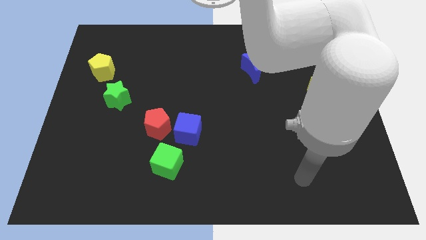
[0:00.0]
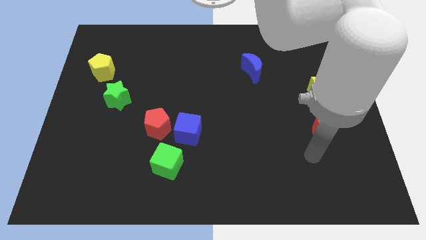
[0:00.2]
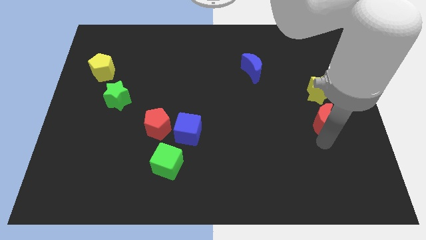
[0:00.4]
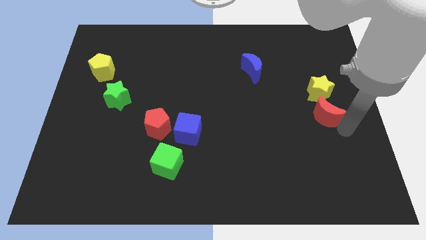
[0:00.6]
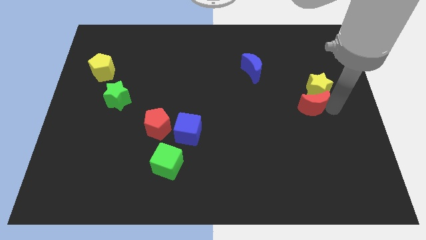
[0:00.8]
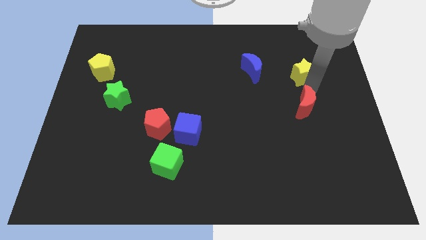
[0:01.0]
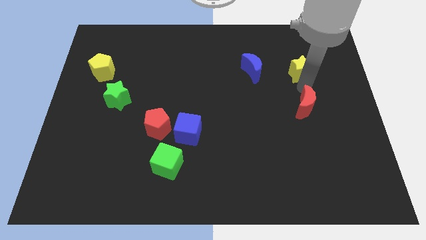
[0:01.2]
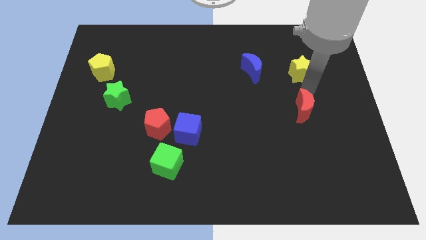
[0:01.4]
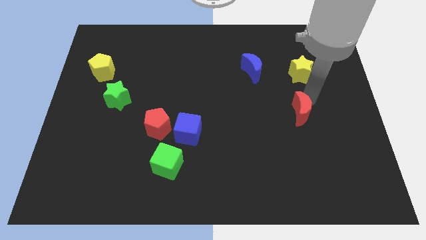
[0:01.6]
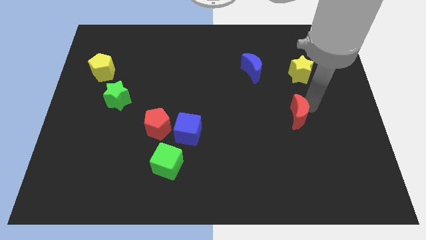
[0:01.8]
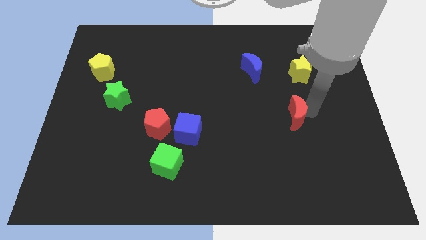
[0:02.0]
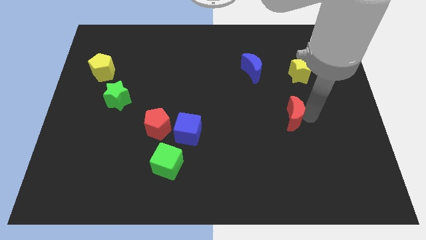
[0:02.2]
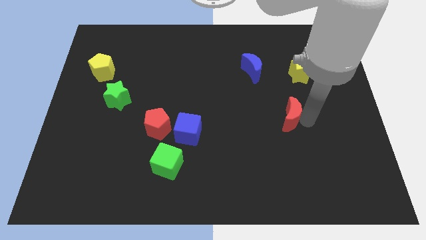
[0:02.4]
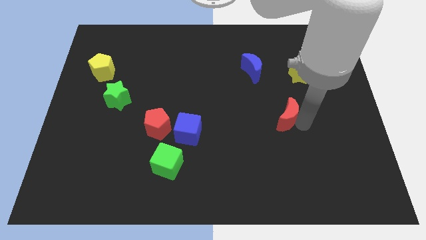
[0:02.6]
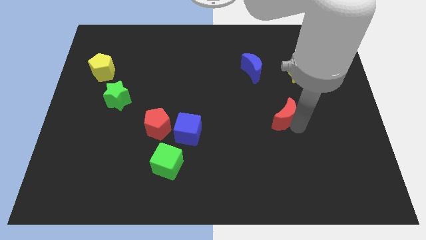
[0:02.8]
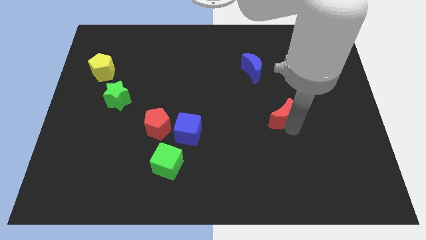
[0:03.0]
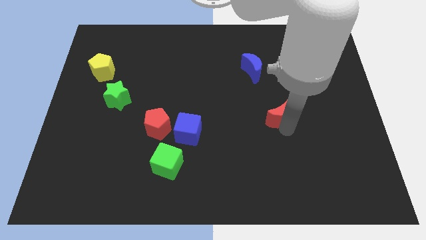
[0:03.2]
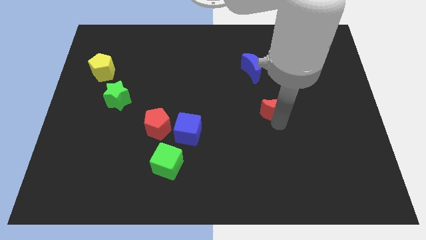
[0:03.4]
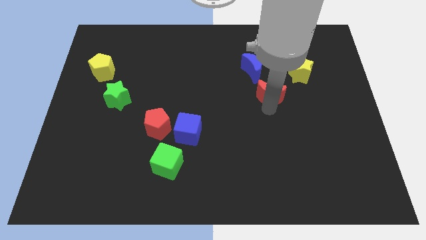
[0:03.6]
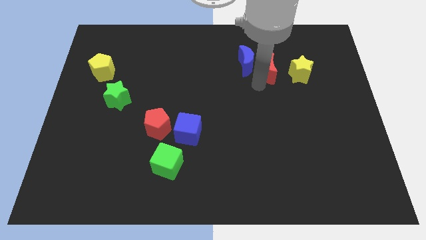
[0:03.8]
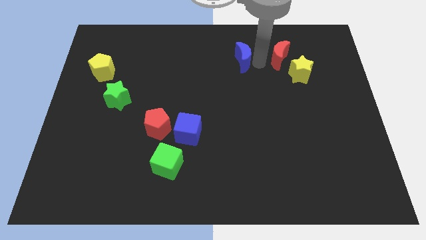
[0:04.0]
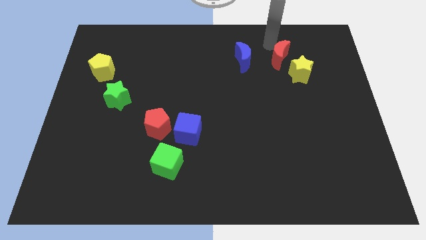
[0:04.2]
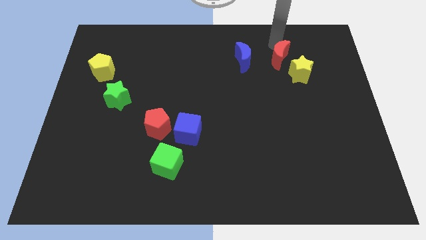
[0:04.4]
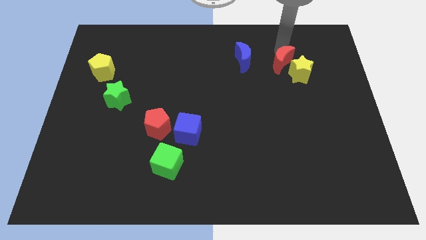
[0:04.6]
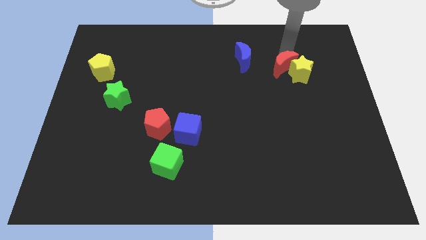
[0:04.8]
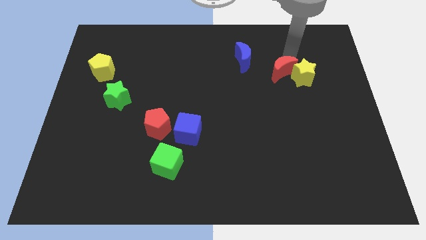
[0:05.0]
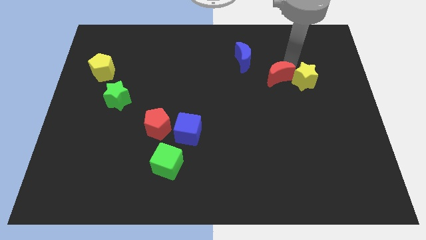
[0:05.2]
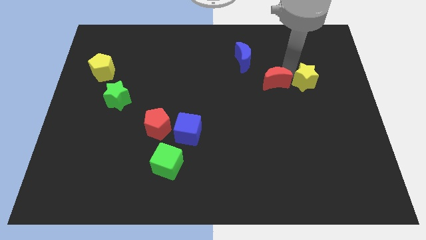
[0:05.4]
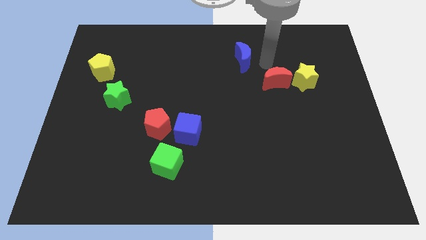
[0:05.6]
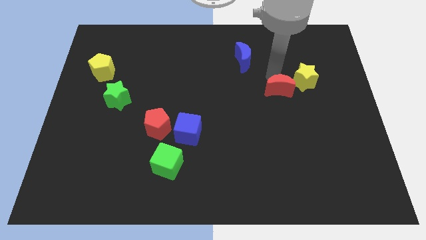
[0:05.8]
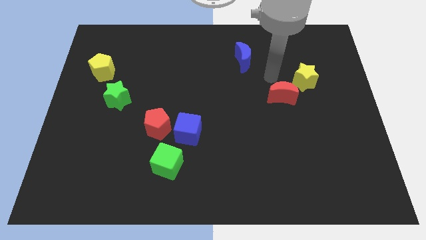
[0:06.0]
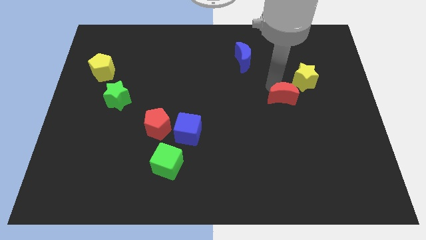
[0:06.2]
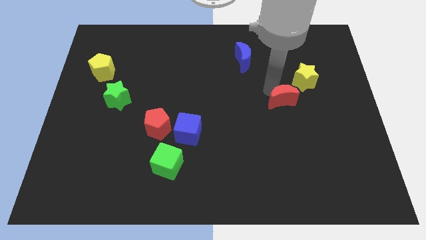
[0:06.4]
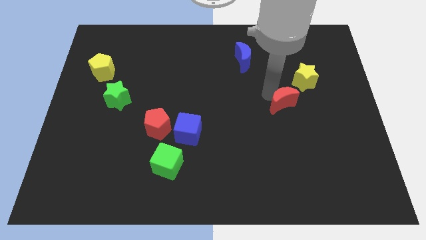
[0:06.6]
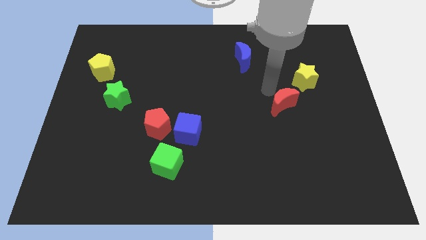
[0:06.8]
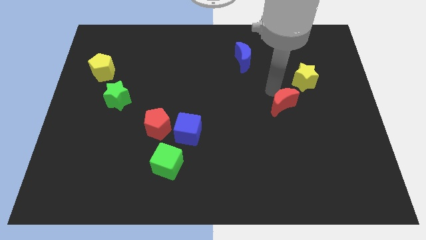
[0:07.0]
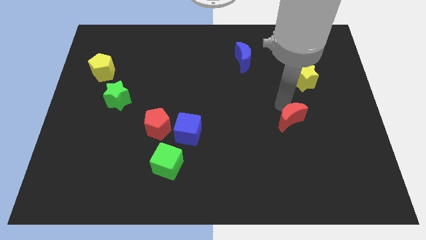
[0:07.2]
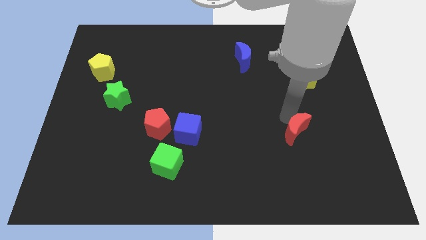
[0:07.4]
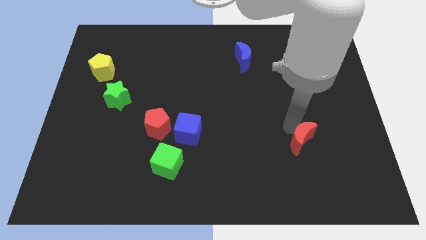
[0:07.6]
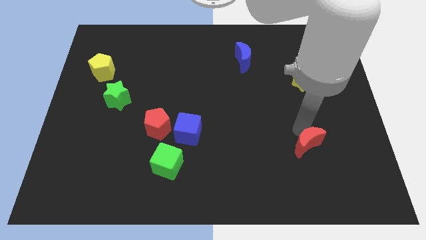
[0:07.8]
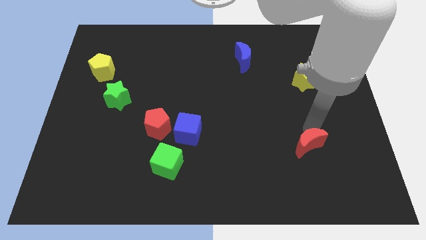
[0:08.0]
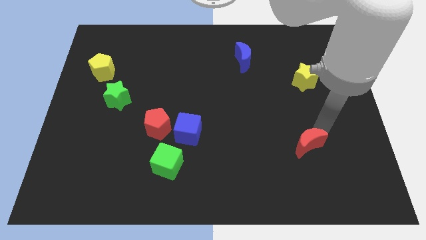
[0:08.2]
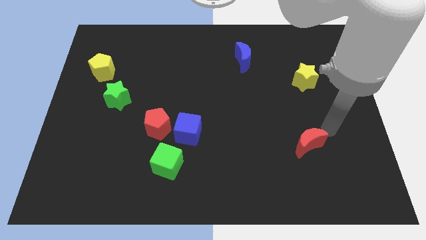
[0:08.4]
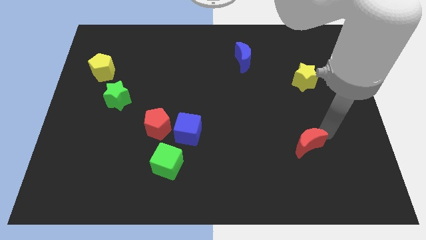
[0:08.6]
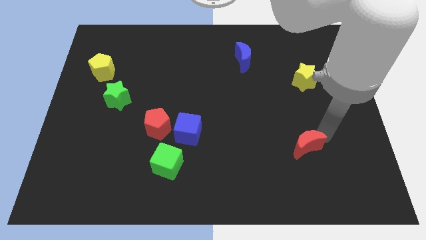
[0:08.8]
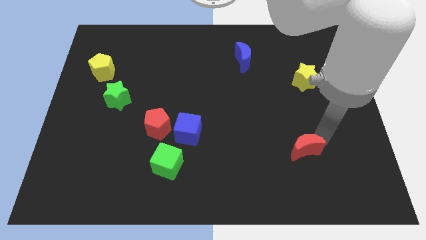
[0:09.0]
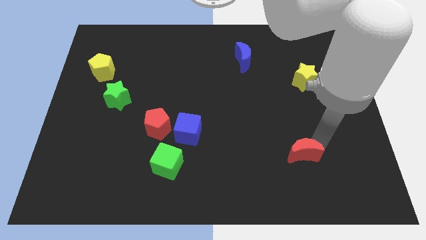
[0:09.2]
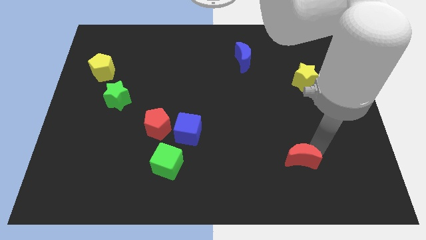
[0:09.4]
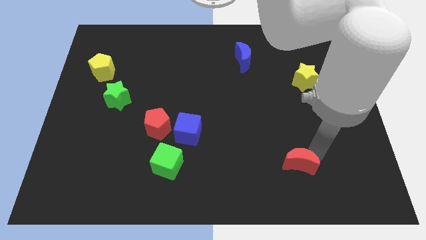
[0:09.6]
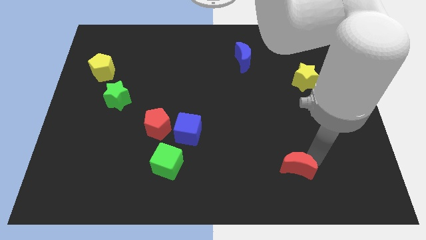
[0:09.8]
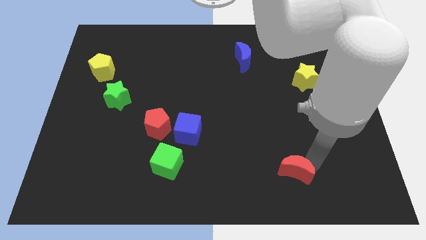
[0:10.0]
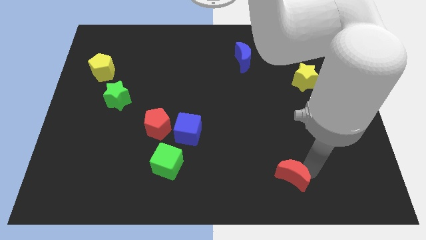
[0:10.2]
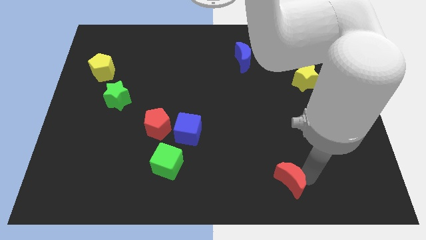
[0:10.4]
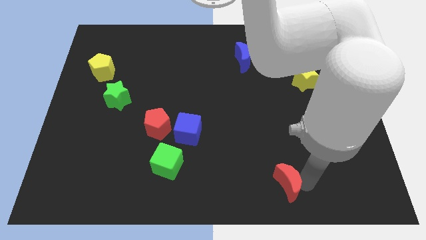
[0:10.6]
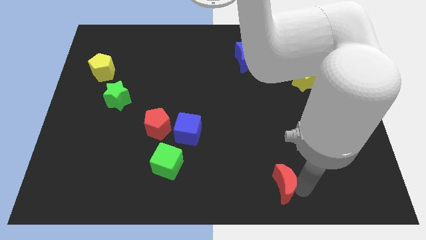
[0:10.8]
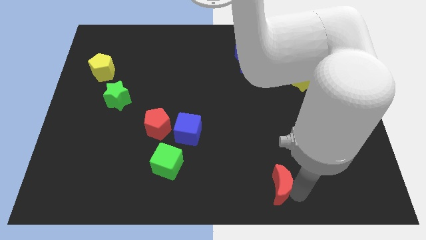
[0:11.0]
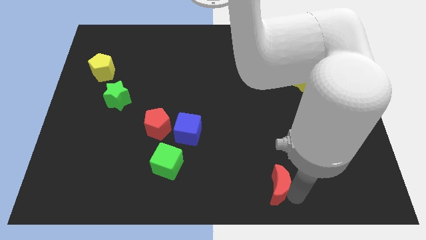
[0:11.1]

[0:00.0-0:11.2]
put the red moon to the bottom side
